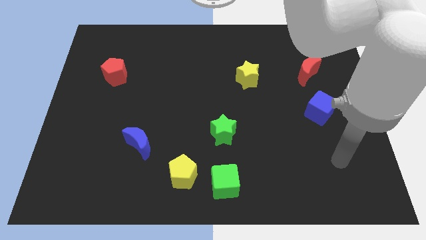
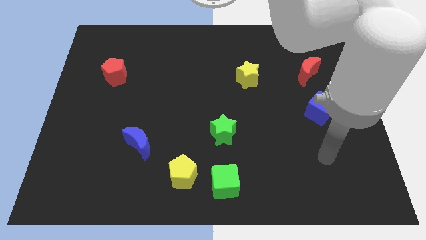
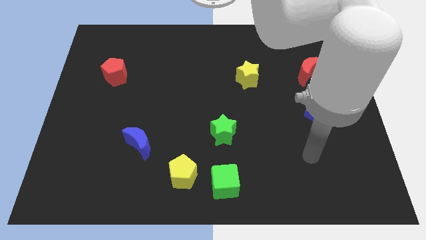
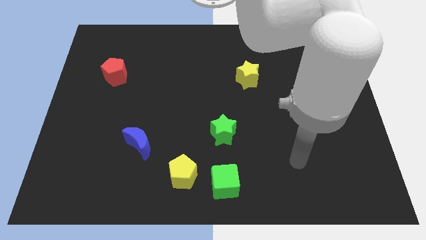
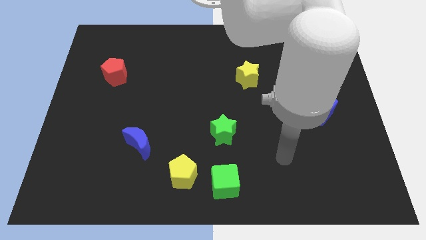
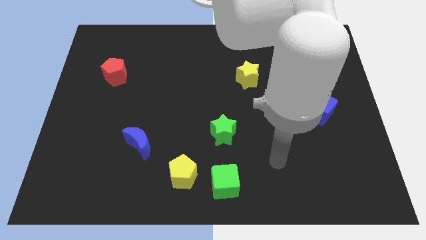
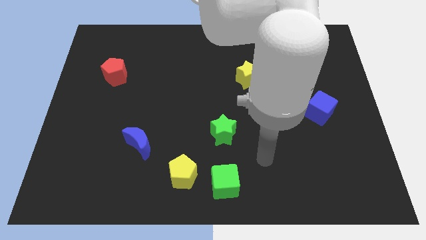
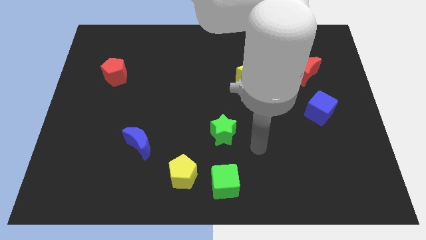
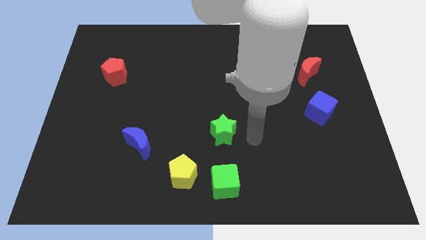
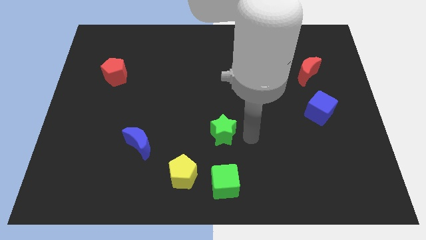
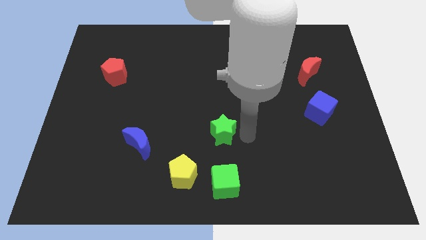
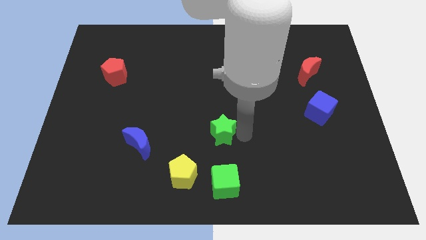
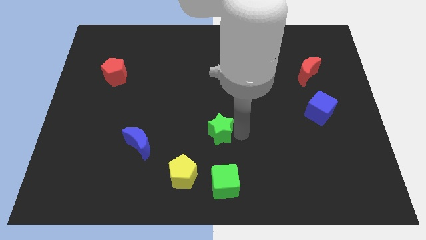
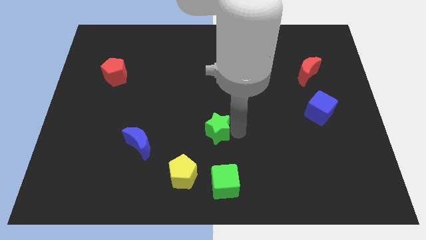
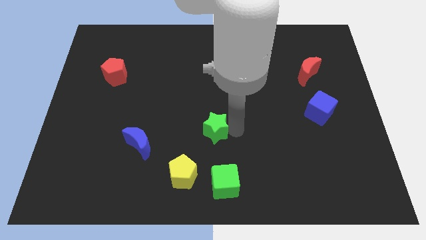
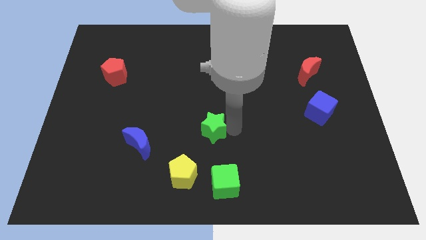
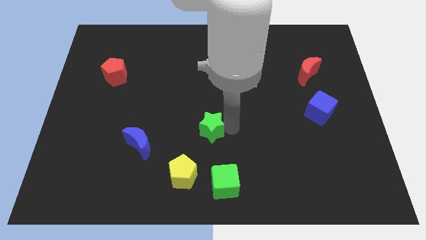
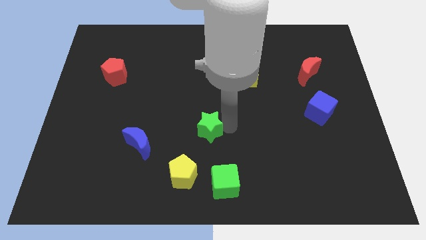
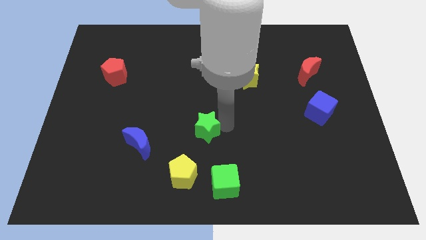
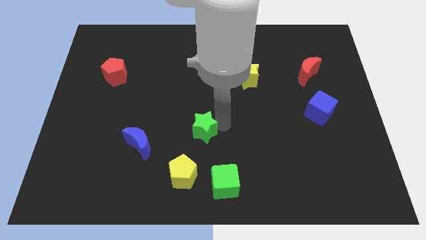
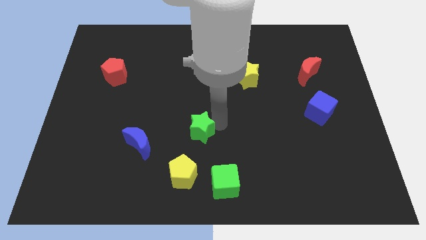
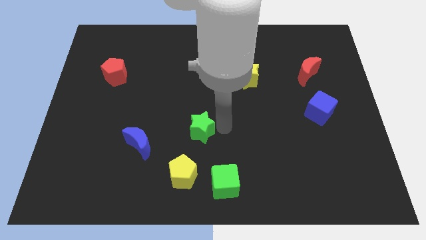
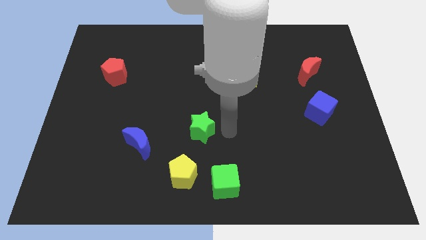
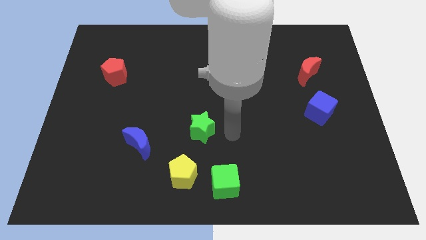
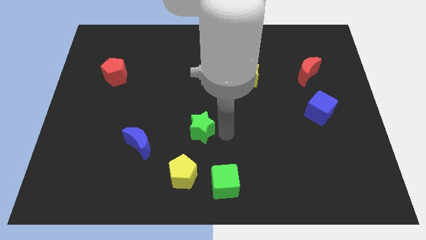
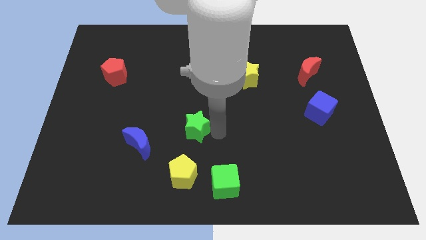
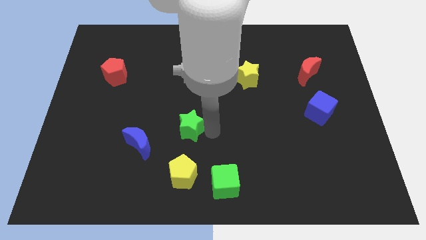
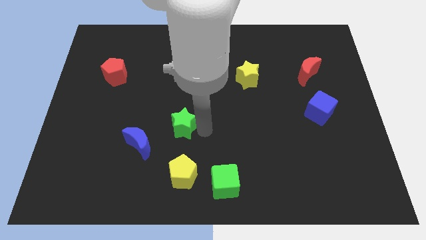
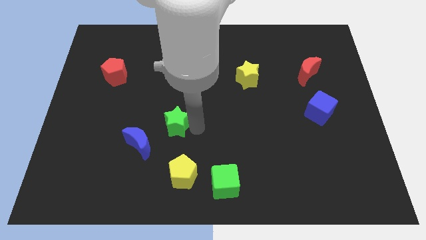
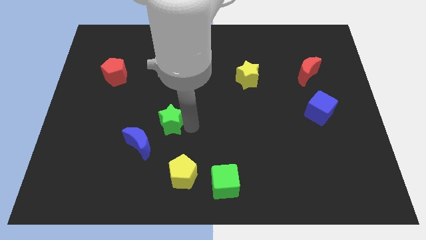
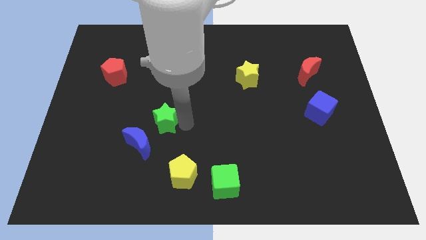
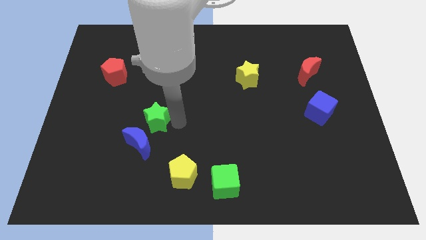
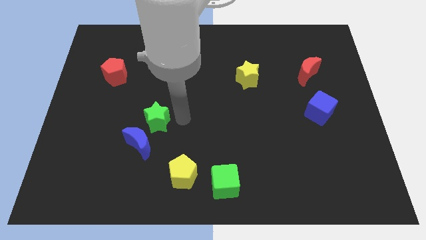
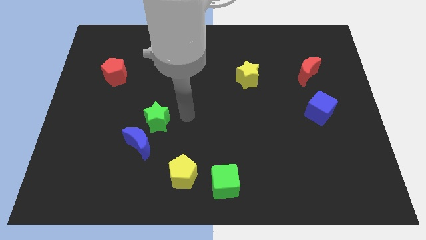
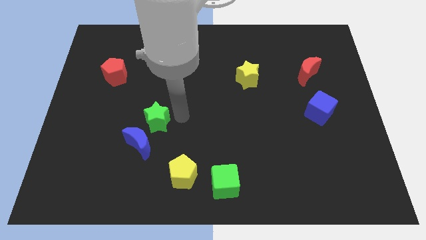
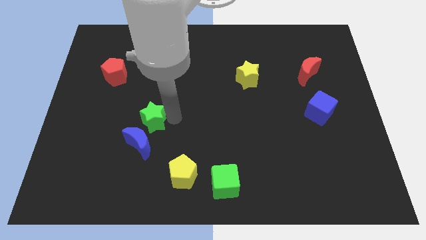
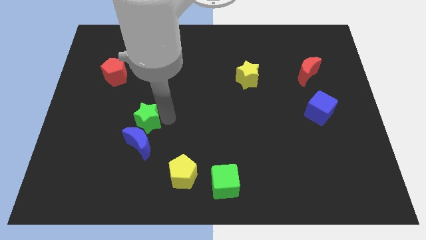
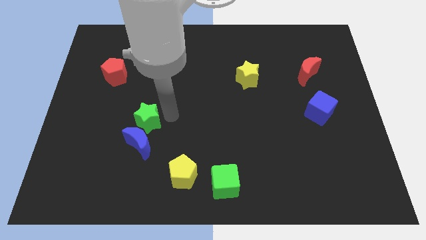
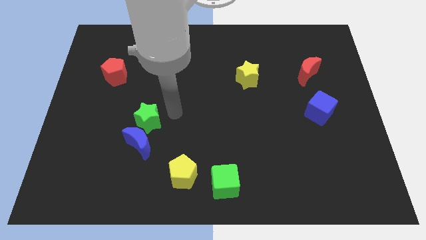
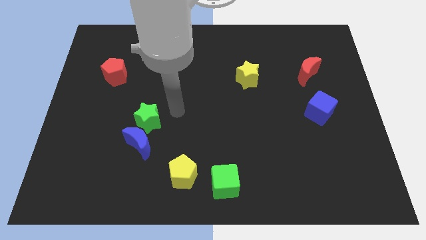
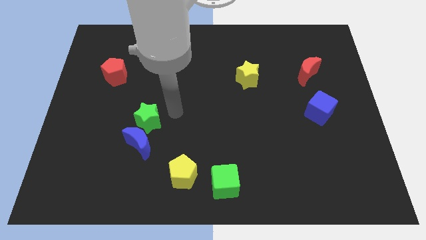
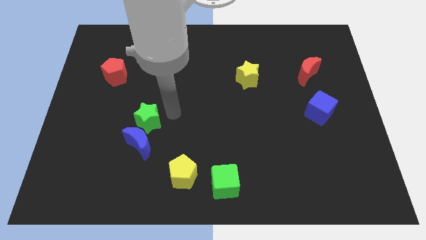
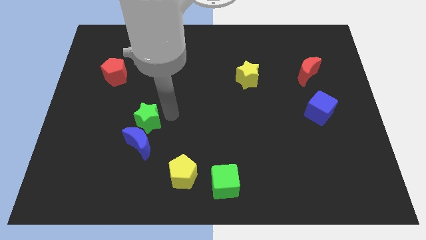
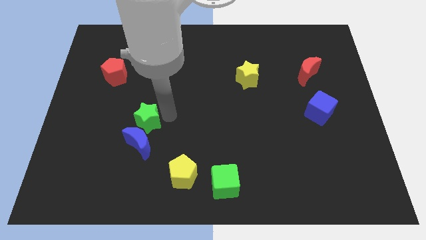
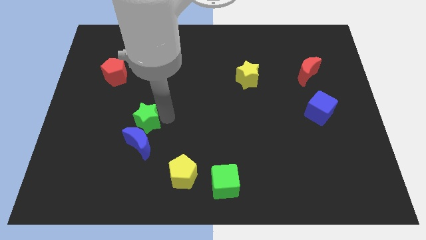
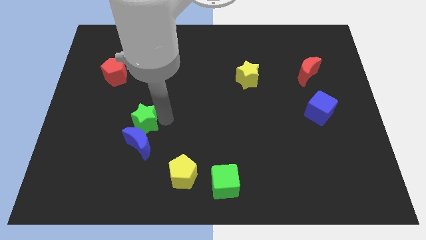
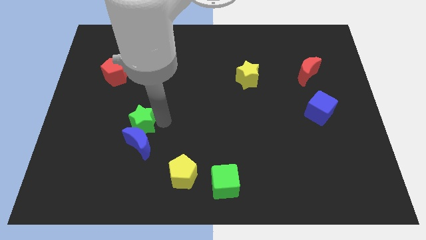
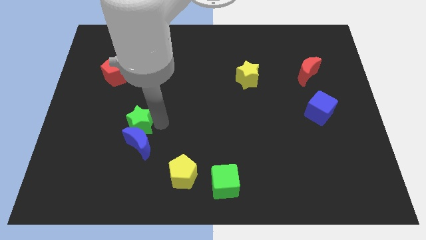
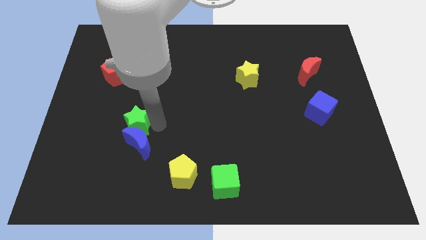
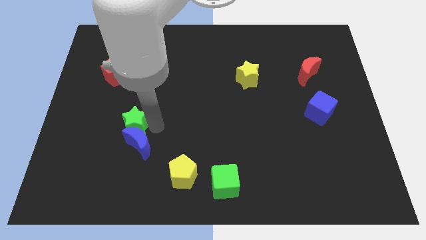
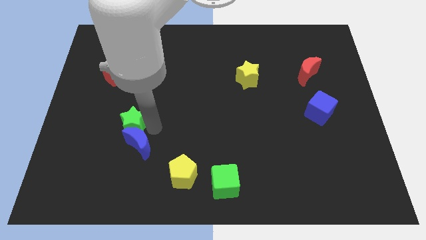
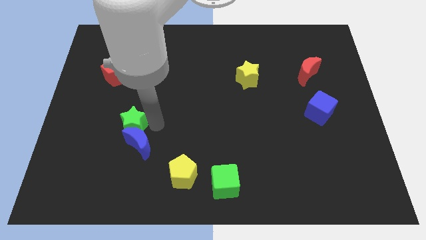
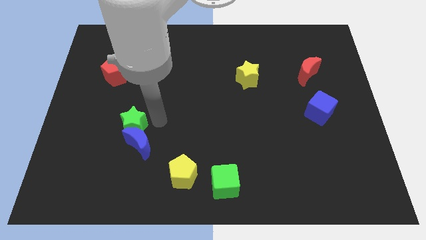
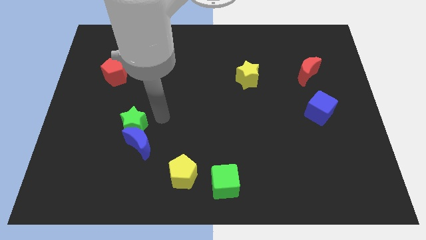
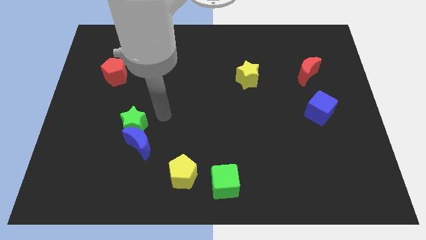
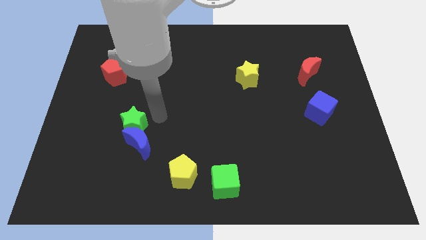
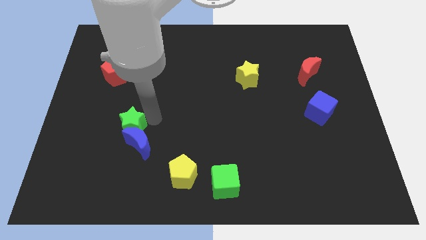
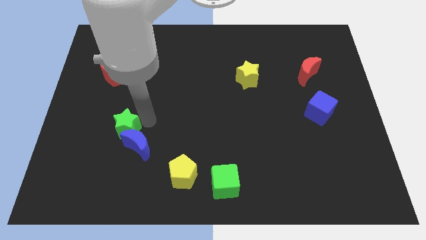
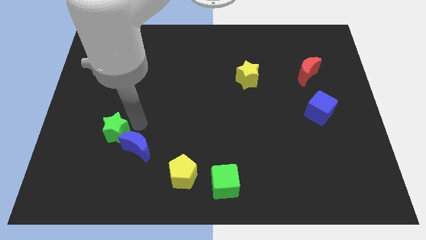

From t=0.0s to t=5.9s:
move the green star left of the blue moon
